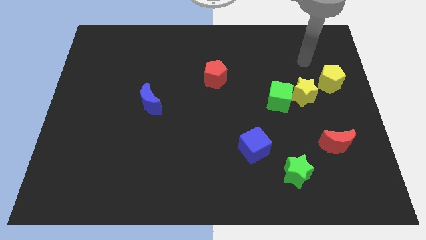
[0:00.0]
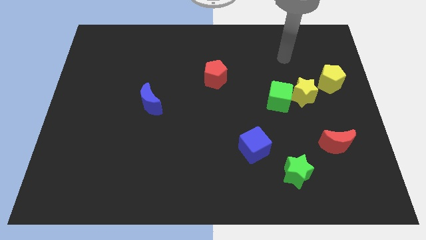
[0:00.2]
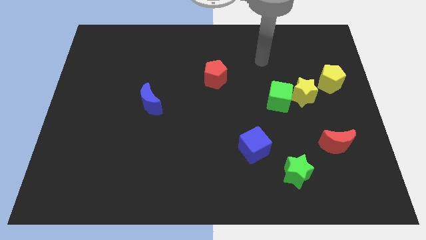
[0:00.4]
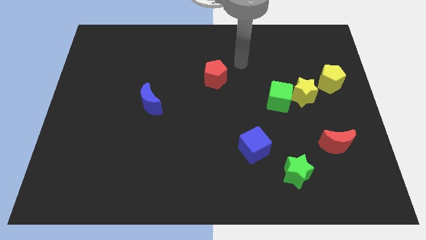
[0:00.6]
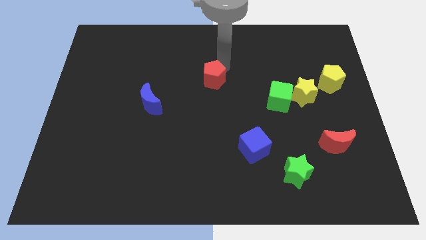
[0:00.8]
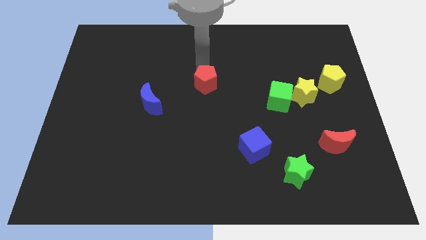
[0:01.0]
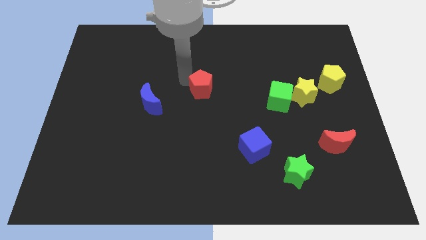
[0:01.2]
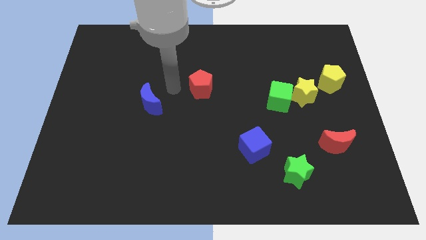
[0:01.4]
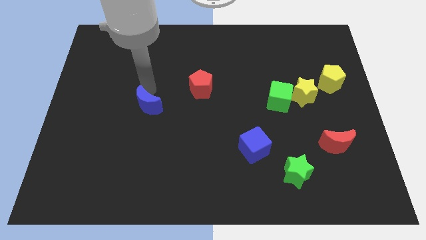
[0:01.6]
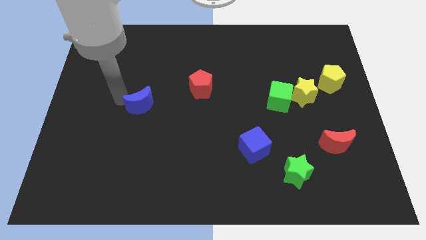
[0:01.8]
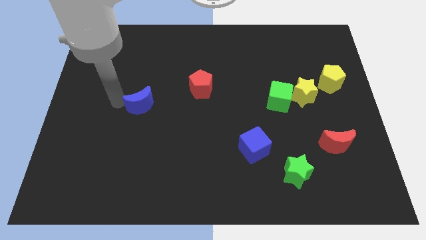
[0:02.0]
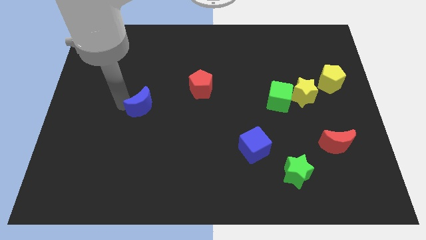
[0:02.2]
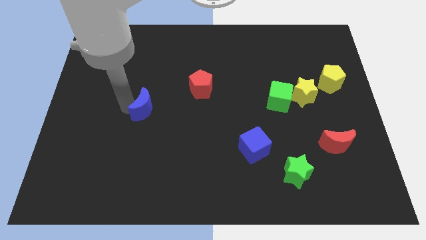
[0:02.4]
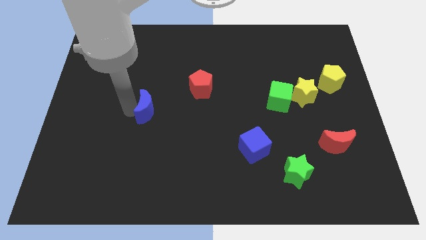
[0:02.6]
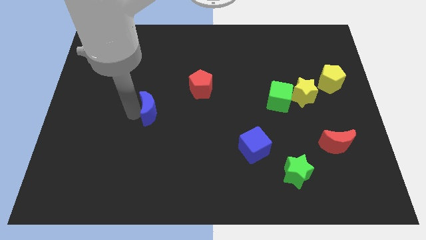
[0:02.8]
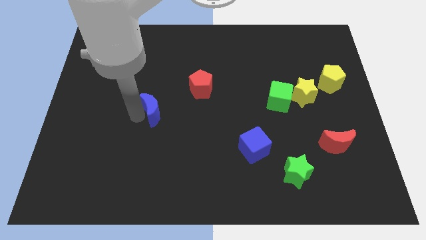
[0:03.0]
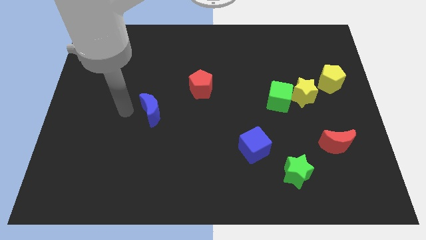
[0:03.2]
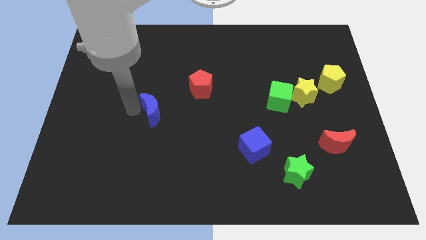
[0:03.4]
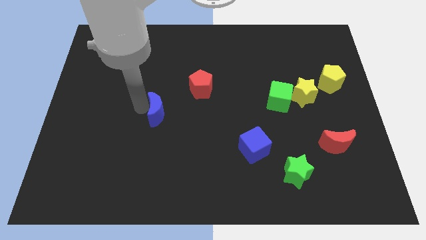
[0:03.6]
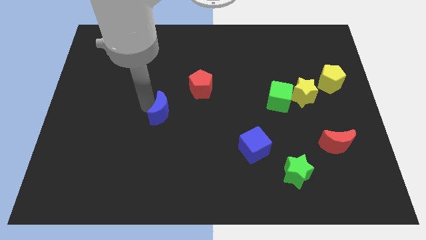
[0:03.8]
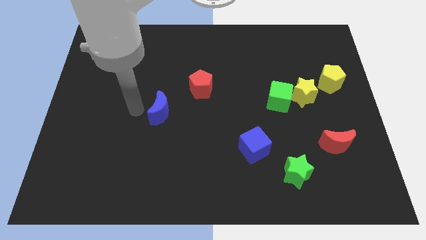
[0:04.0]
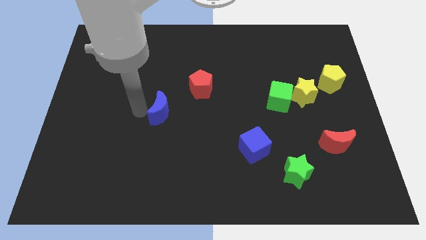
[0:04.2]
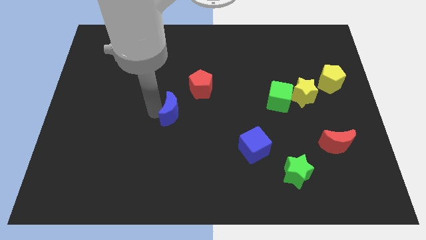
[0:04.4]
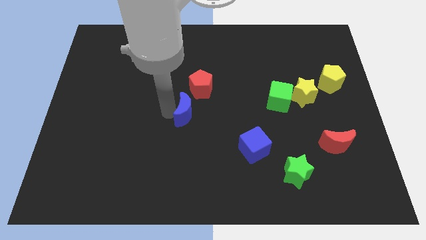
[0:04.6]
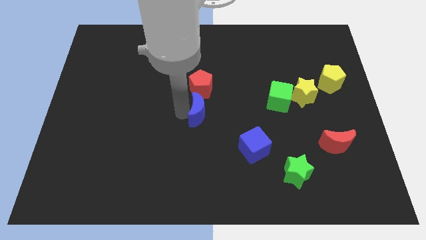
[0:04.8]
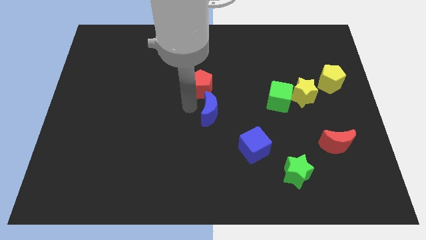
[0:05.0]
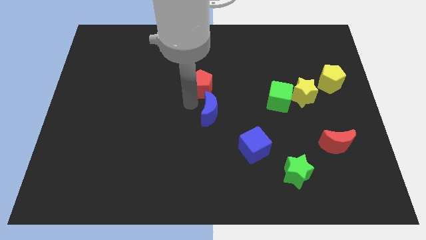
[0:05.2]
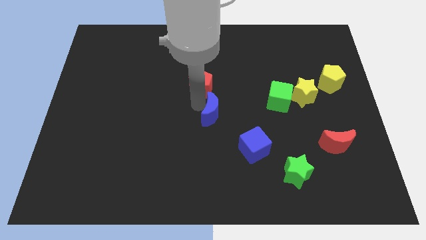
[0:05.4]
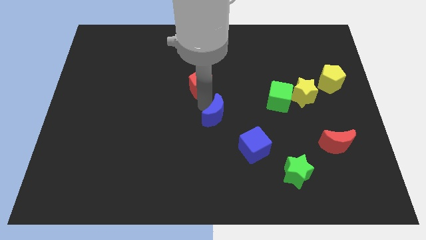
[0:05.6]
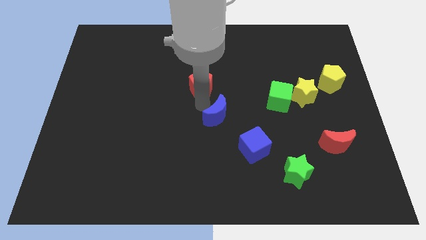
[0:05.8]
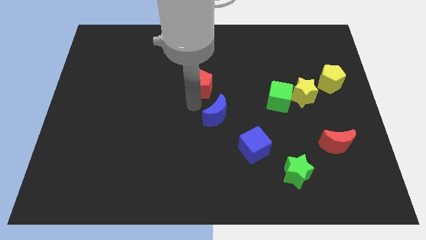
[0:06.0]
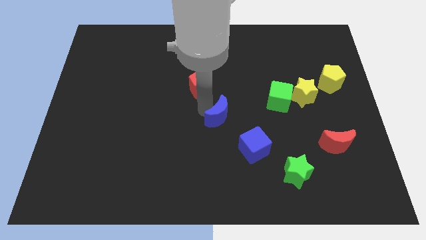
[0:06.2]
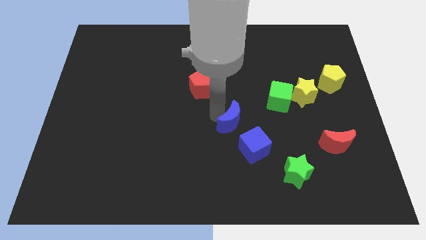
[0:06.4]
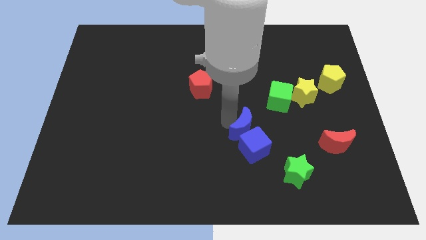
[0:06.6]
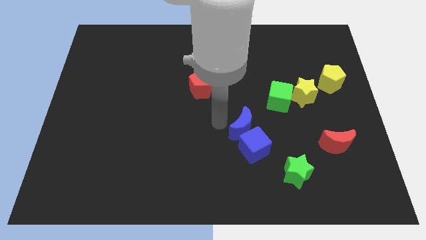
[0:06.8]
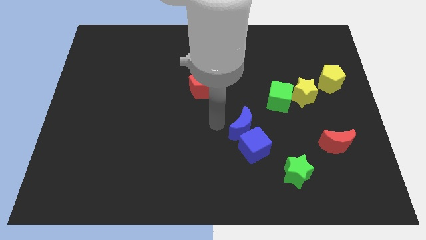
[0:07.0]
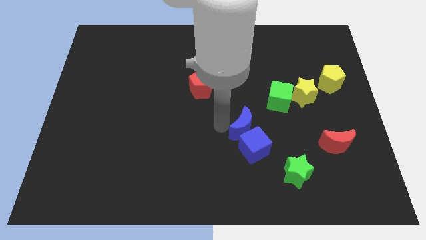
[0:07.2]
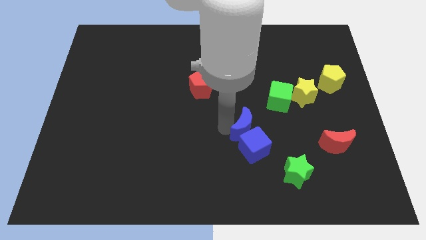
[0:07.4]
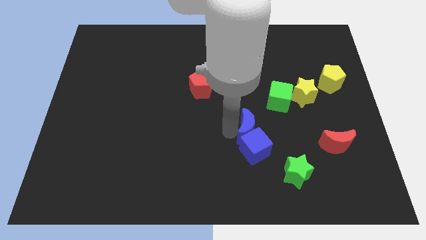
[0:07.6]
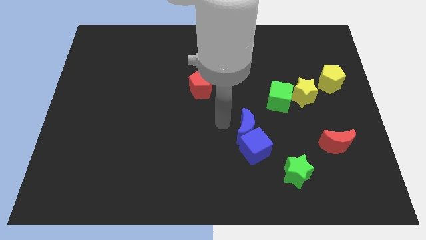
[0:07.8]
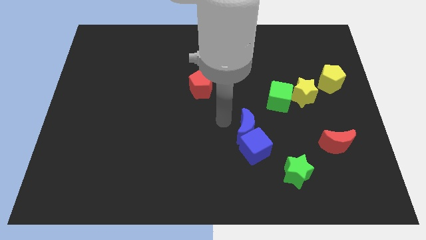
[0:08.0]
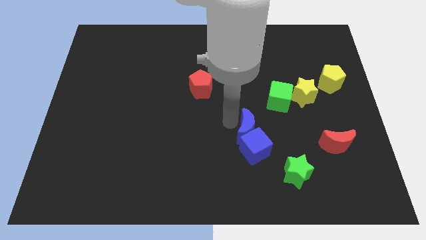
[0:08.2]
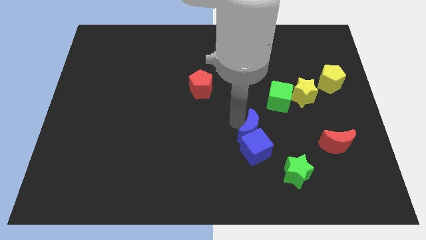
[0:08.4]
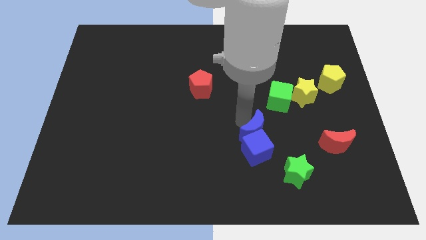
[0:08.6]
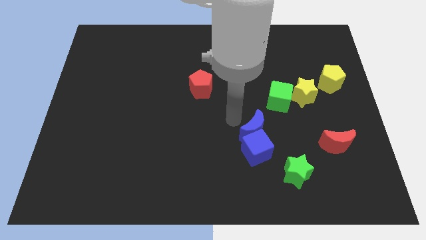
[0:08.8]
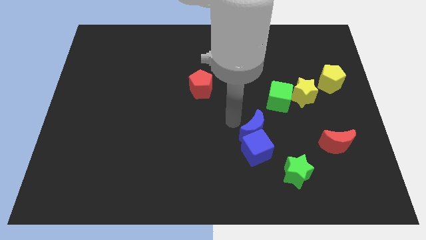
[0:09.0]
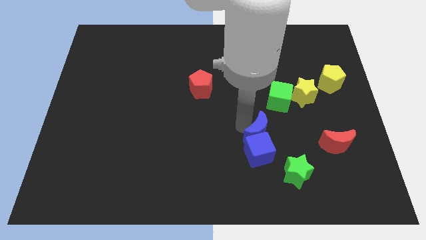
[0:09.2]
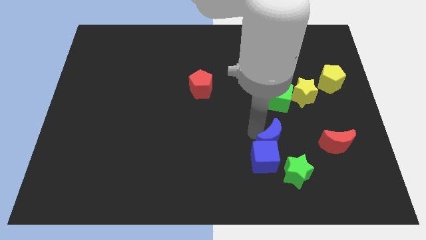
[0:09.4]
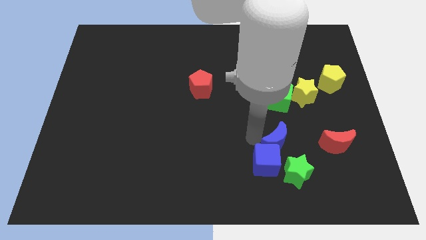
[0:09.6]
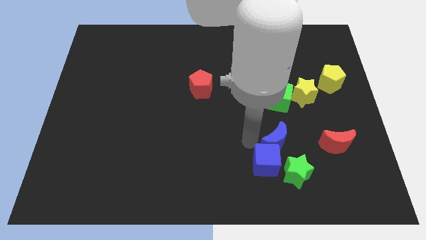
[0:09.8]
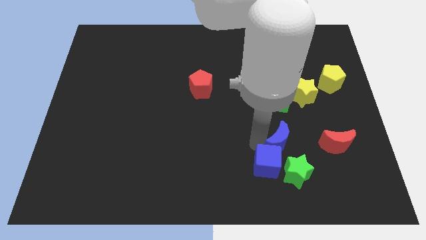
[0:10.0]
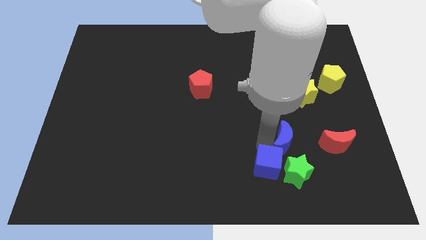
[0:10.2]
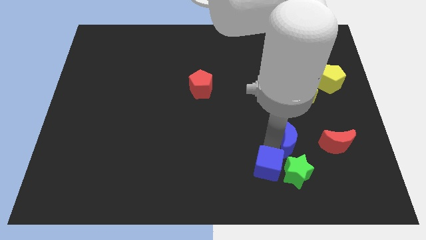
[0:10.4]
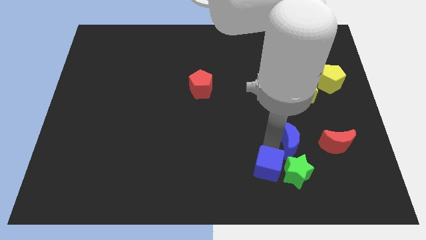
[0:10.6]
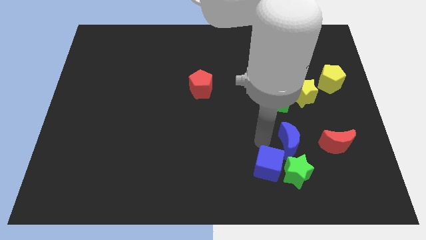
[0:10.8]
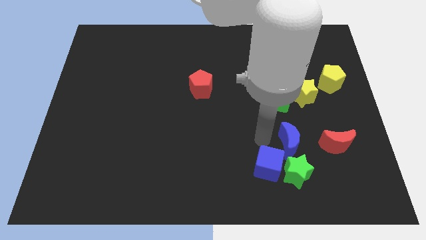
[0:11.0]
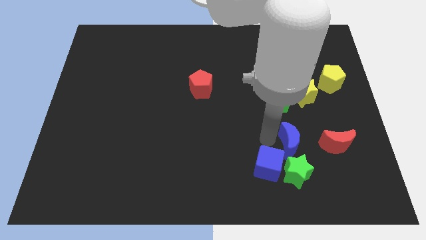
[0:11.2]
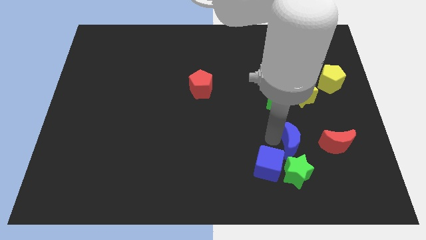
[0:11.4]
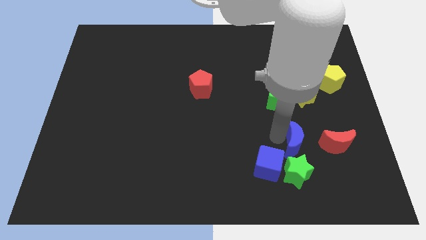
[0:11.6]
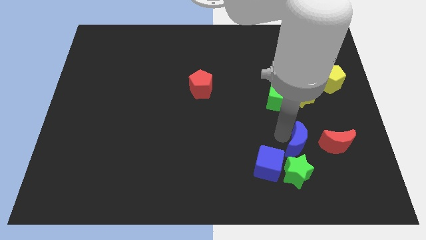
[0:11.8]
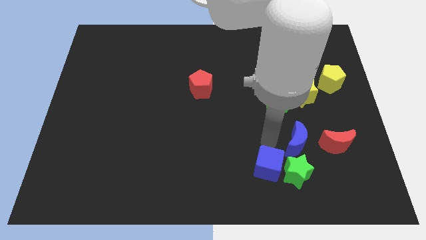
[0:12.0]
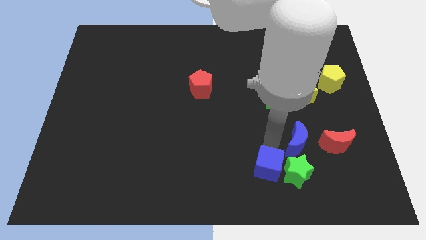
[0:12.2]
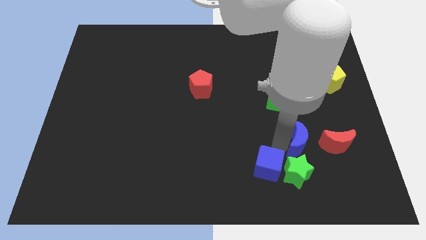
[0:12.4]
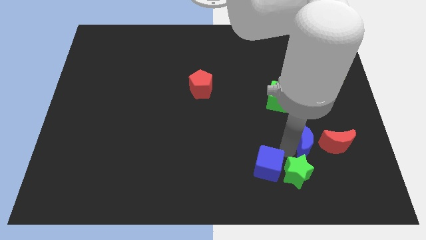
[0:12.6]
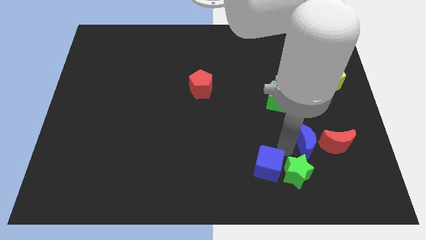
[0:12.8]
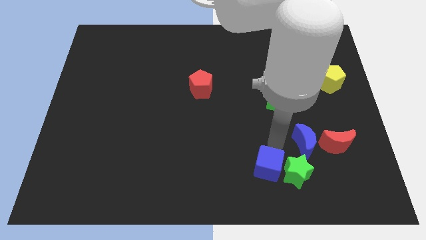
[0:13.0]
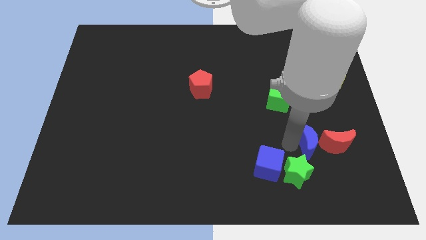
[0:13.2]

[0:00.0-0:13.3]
put the blue moon towards the red moon
